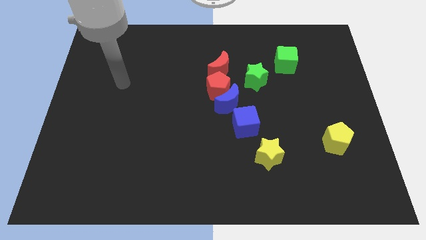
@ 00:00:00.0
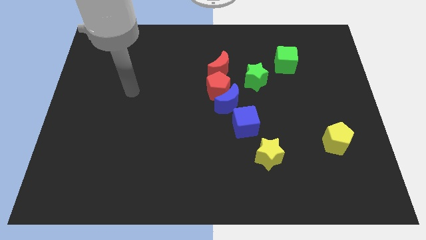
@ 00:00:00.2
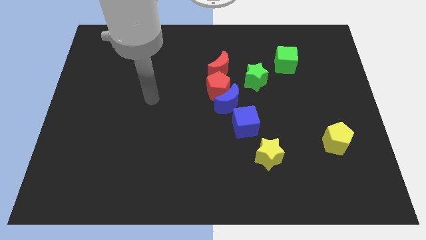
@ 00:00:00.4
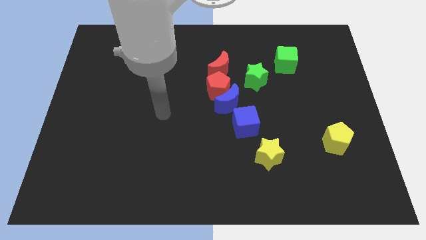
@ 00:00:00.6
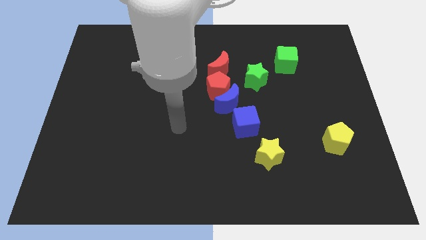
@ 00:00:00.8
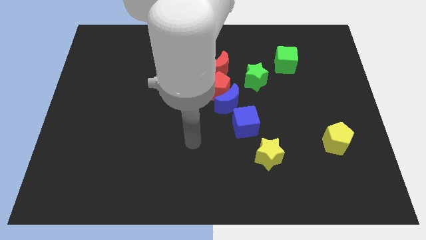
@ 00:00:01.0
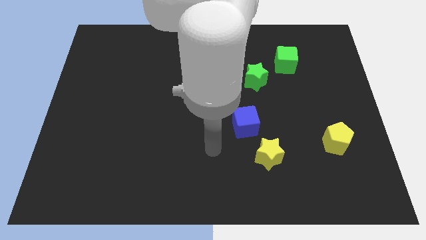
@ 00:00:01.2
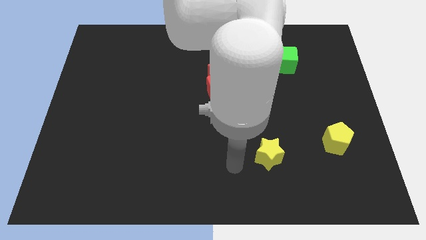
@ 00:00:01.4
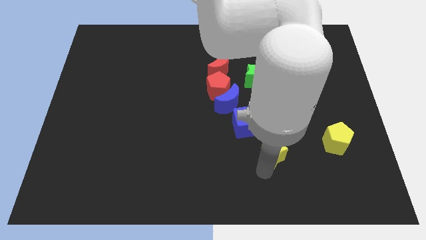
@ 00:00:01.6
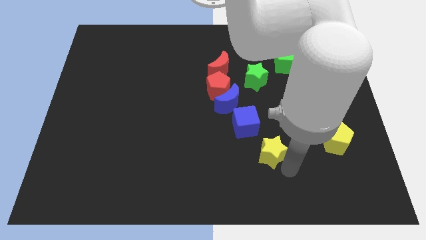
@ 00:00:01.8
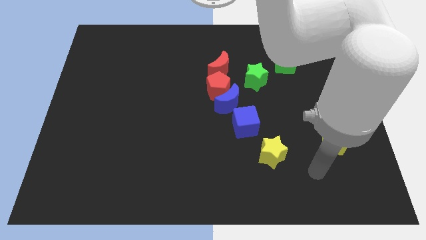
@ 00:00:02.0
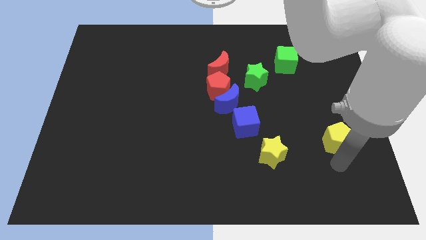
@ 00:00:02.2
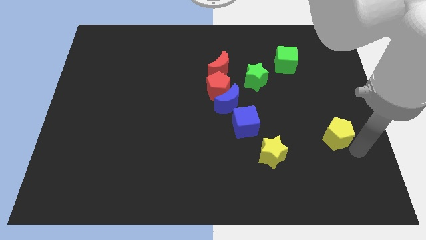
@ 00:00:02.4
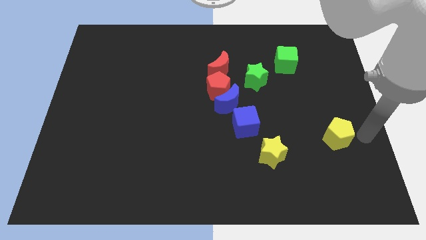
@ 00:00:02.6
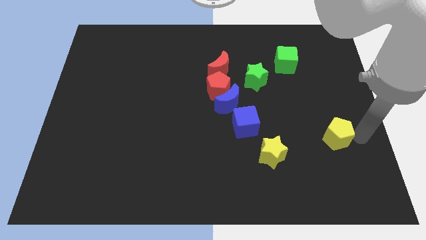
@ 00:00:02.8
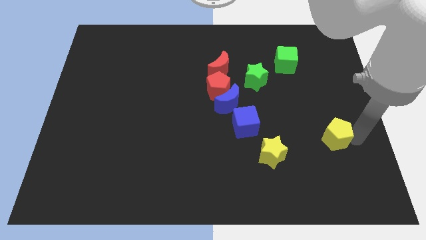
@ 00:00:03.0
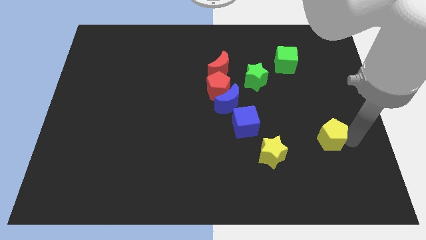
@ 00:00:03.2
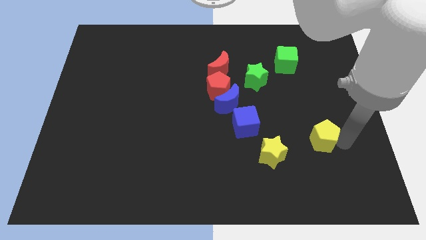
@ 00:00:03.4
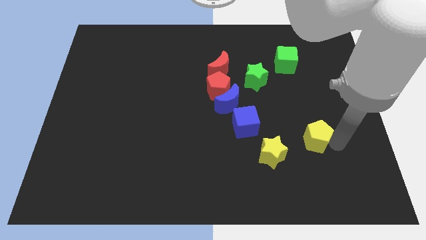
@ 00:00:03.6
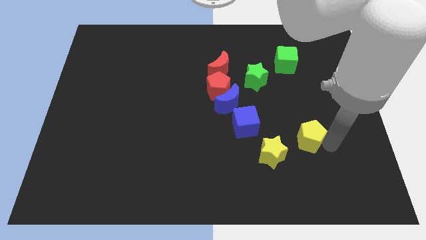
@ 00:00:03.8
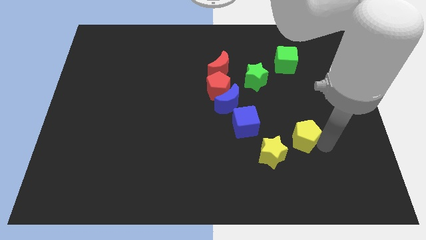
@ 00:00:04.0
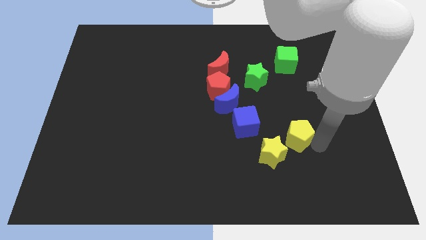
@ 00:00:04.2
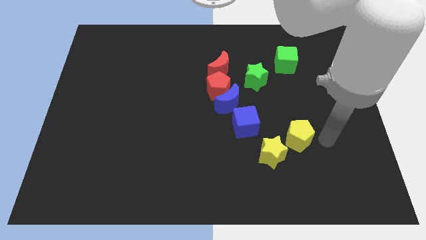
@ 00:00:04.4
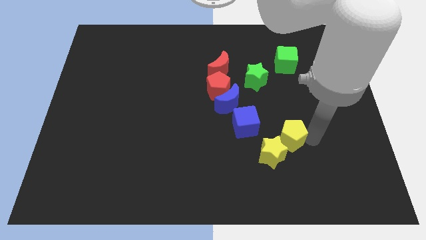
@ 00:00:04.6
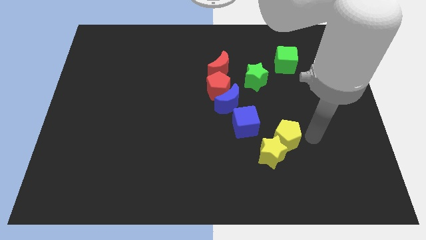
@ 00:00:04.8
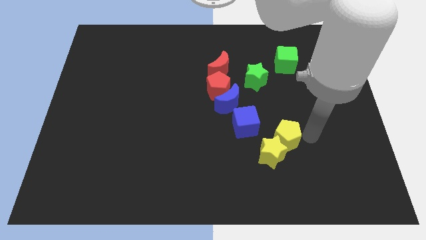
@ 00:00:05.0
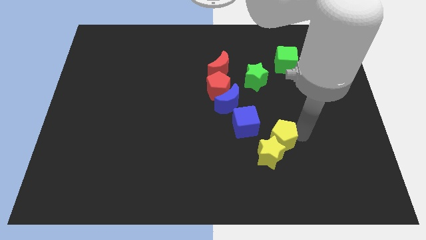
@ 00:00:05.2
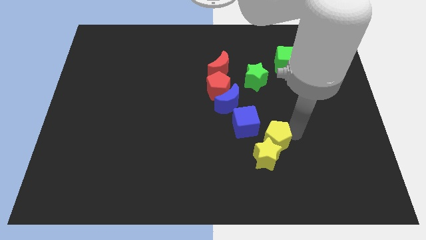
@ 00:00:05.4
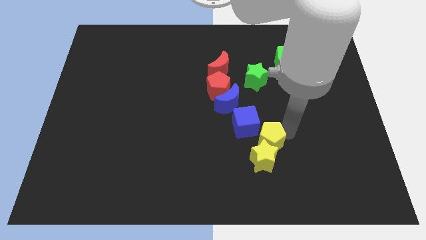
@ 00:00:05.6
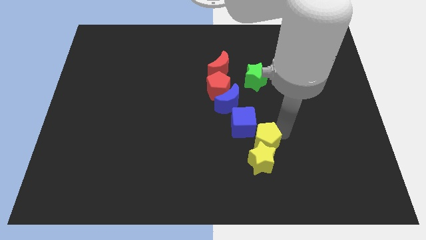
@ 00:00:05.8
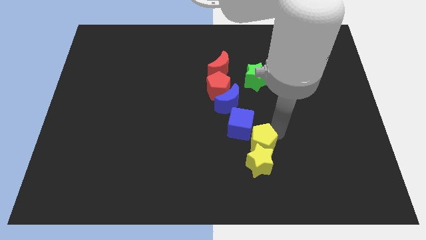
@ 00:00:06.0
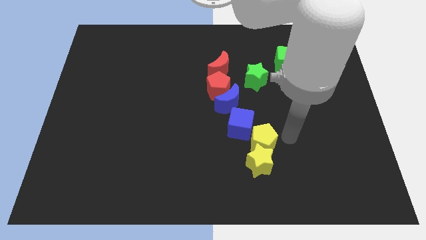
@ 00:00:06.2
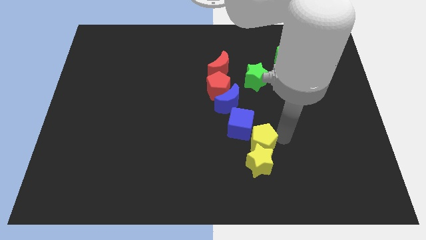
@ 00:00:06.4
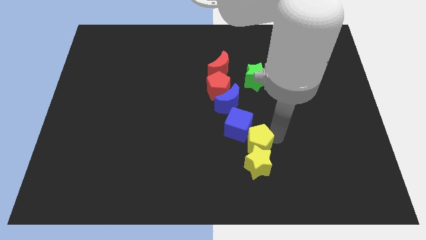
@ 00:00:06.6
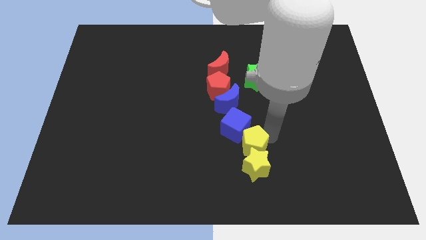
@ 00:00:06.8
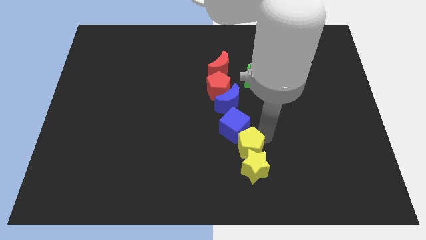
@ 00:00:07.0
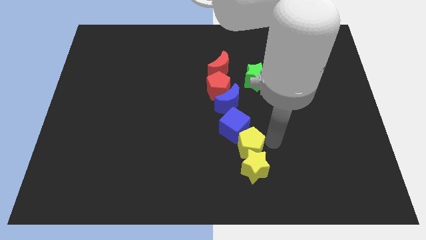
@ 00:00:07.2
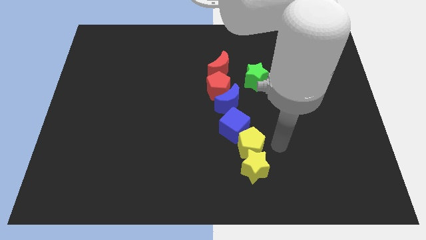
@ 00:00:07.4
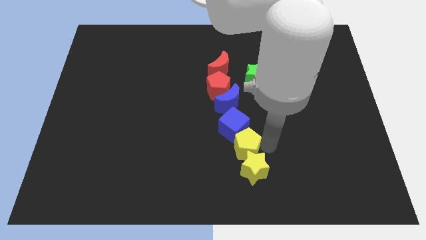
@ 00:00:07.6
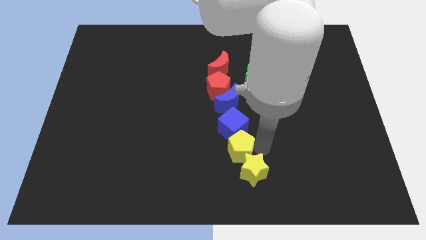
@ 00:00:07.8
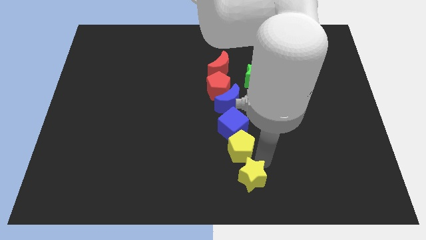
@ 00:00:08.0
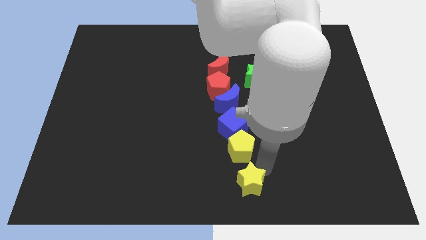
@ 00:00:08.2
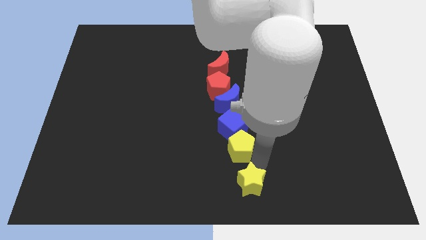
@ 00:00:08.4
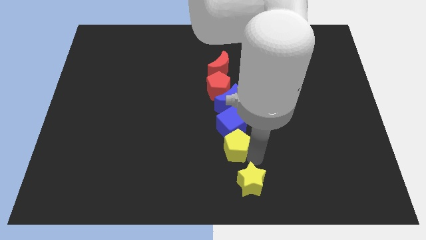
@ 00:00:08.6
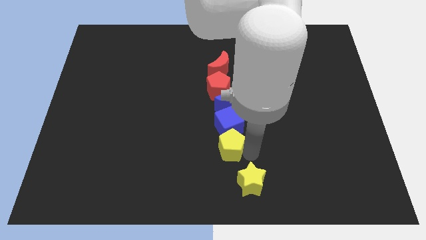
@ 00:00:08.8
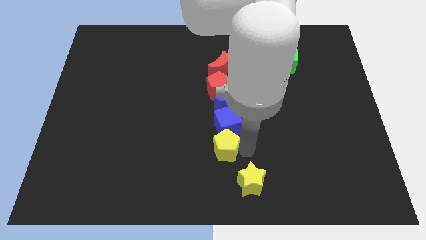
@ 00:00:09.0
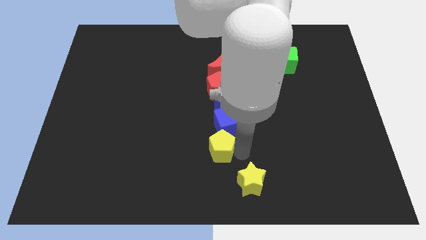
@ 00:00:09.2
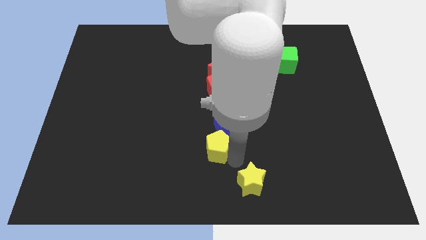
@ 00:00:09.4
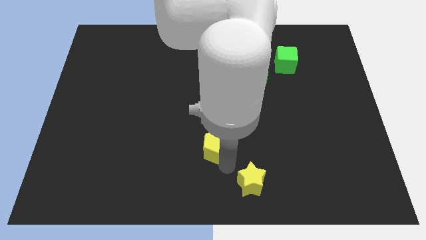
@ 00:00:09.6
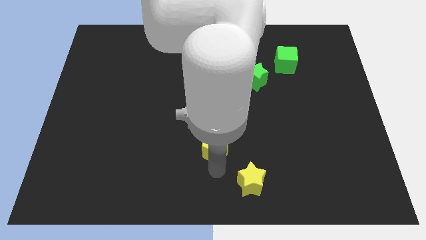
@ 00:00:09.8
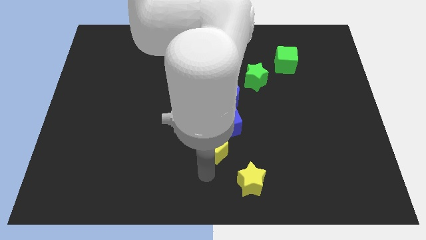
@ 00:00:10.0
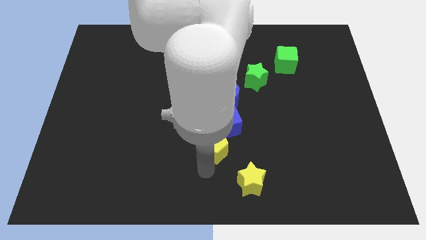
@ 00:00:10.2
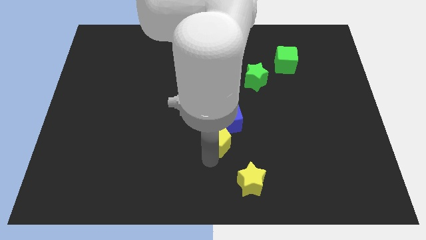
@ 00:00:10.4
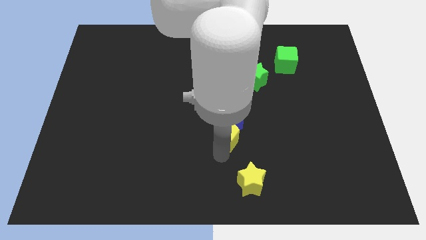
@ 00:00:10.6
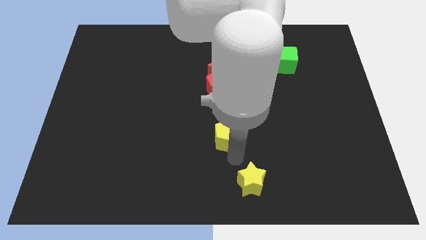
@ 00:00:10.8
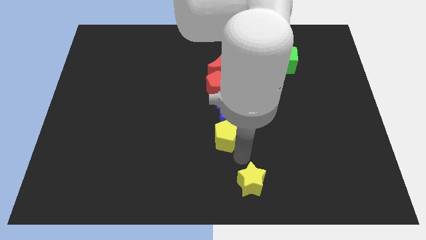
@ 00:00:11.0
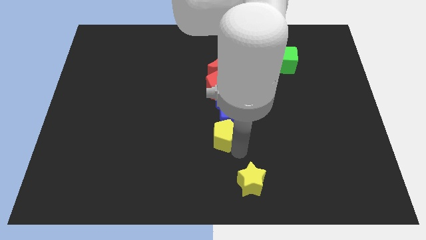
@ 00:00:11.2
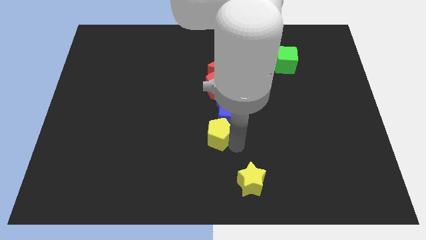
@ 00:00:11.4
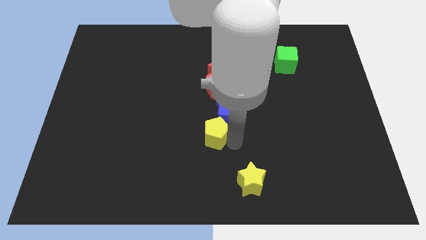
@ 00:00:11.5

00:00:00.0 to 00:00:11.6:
put the yellow pentagon diagonally down and to the left of the blue moon
